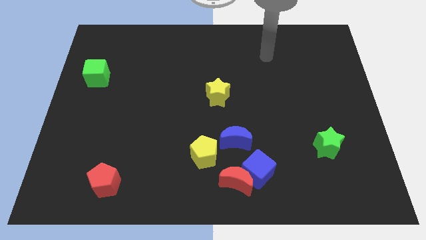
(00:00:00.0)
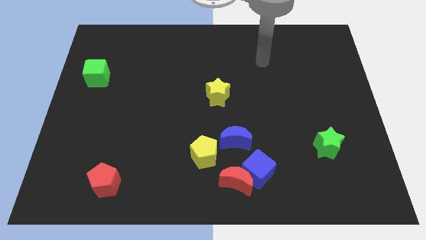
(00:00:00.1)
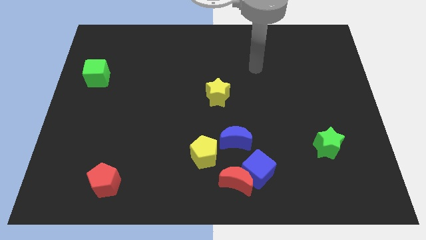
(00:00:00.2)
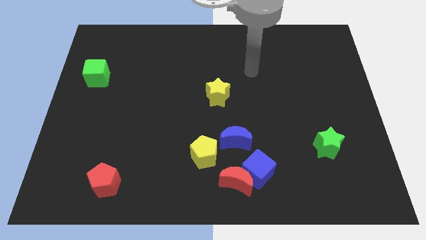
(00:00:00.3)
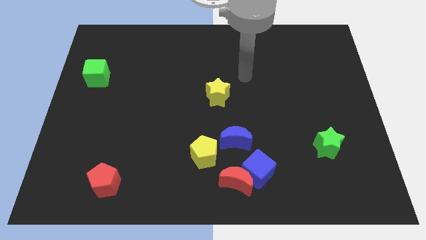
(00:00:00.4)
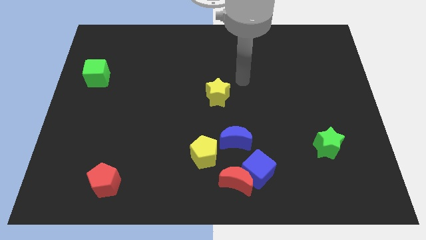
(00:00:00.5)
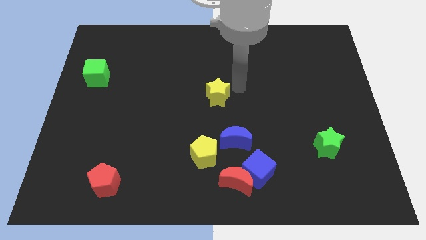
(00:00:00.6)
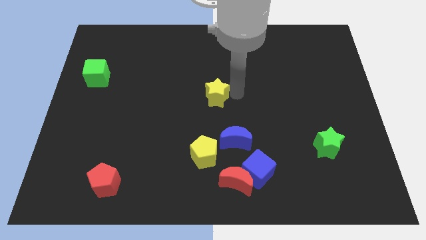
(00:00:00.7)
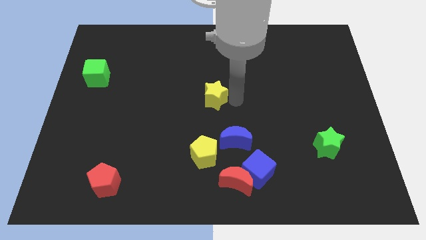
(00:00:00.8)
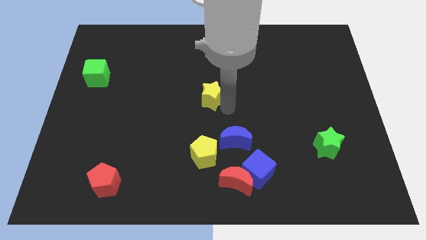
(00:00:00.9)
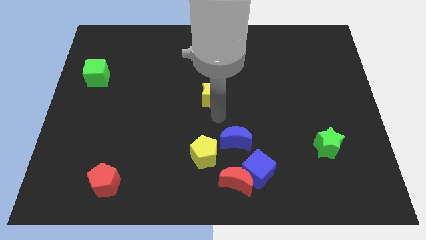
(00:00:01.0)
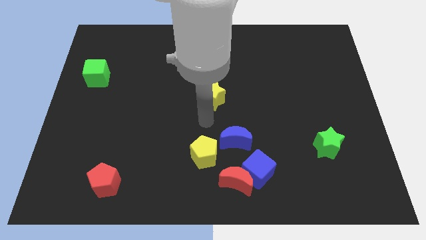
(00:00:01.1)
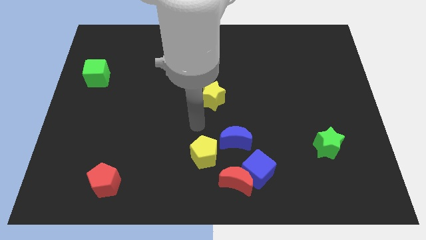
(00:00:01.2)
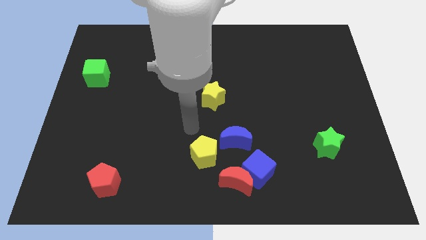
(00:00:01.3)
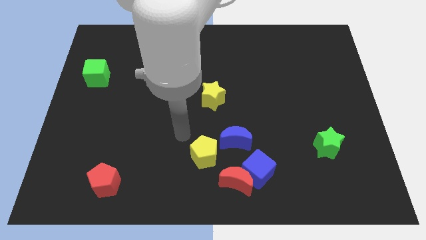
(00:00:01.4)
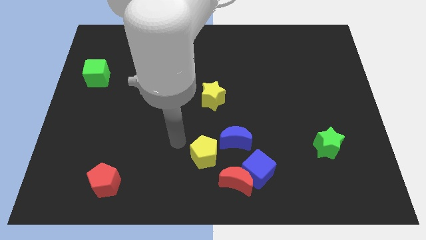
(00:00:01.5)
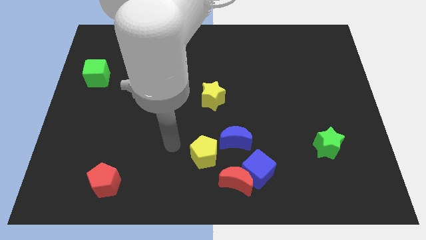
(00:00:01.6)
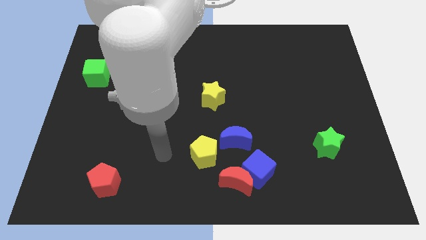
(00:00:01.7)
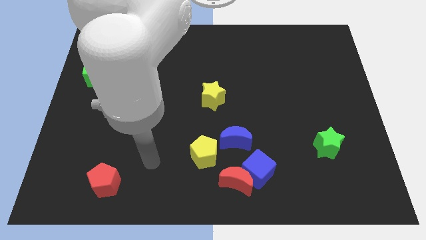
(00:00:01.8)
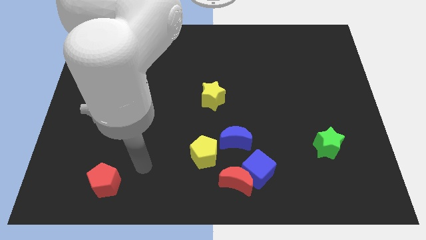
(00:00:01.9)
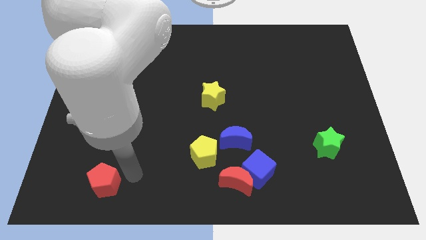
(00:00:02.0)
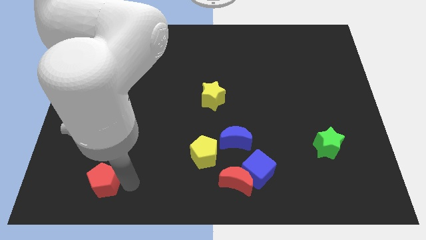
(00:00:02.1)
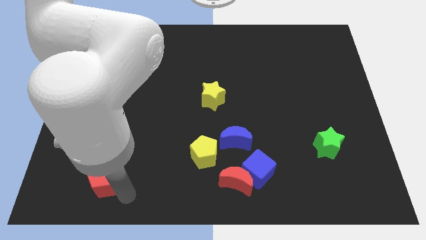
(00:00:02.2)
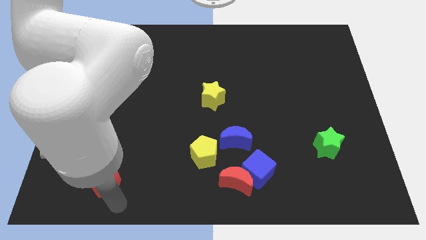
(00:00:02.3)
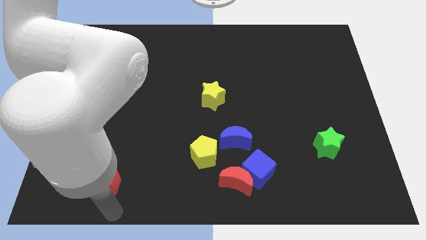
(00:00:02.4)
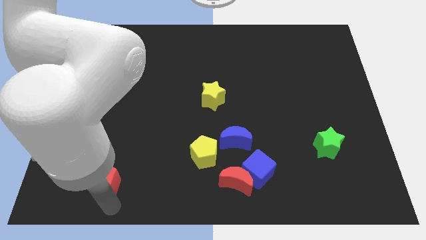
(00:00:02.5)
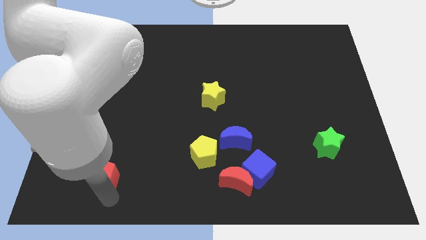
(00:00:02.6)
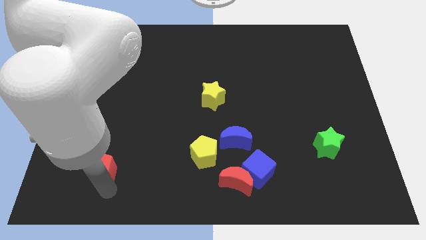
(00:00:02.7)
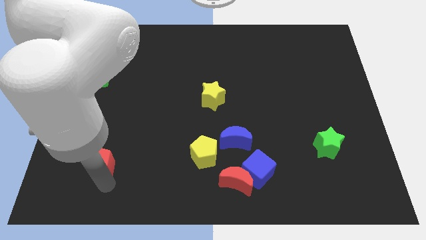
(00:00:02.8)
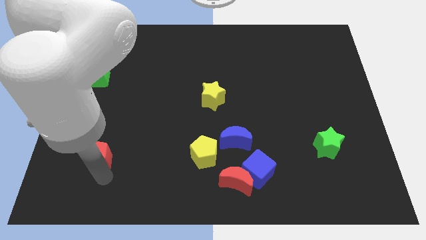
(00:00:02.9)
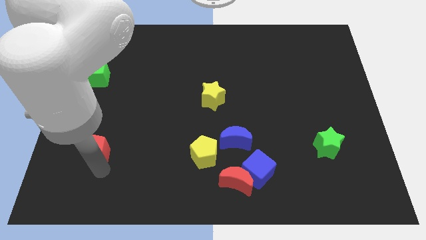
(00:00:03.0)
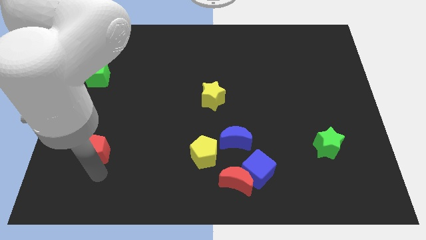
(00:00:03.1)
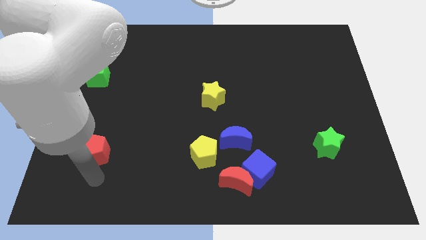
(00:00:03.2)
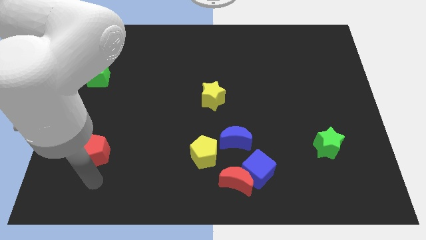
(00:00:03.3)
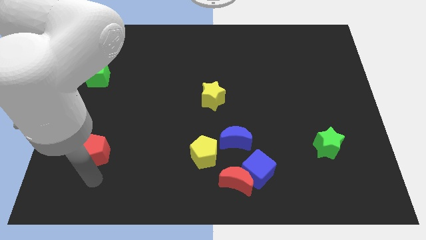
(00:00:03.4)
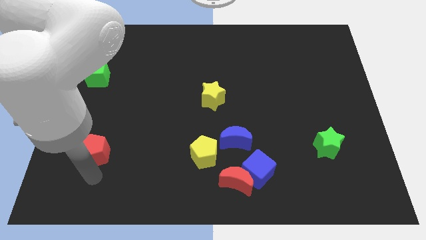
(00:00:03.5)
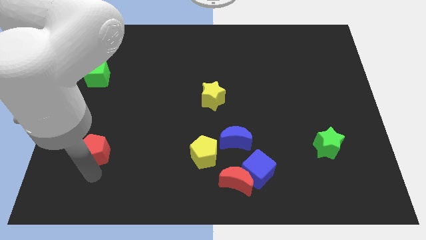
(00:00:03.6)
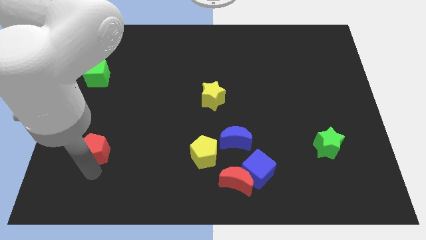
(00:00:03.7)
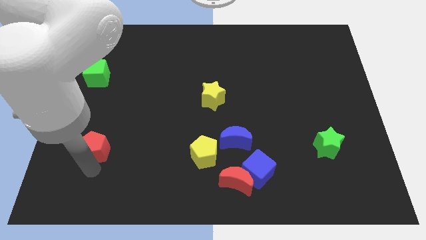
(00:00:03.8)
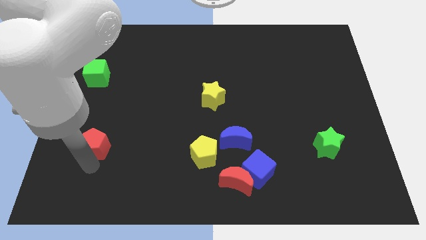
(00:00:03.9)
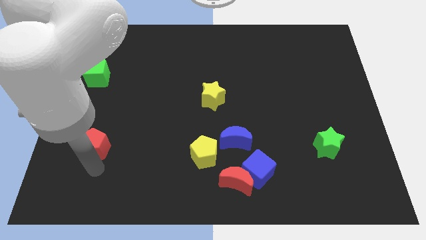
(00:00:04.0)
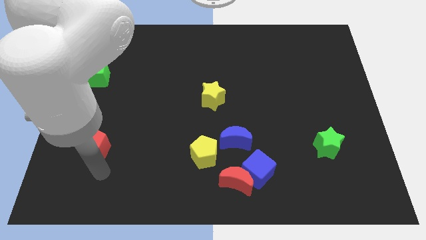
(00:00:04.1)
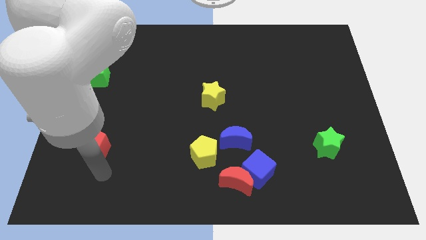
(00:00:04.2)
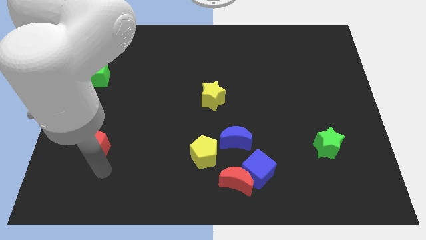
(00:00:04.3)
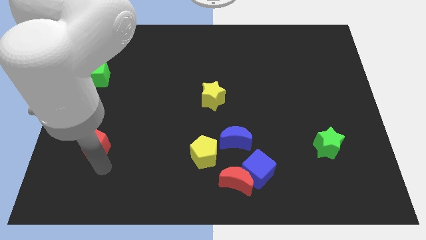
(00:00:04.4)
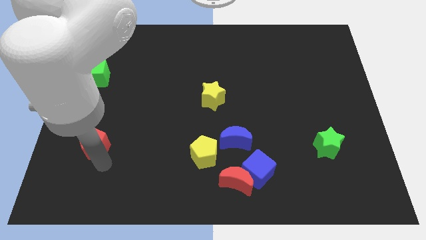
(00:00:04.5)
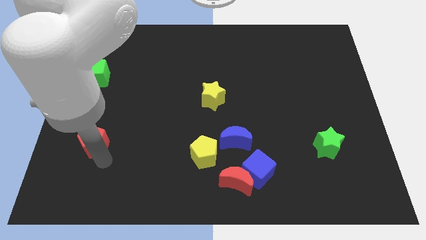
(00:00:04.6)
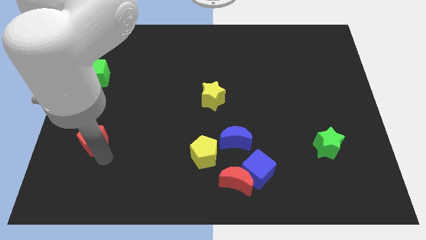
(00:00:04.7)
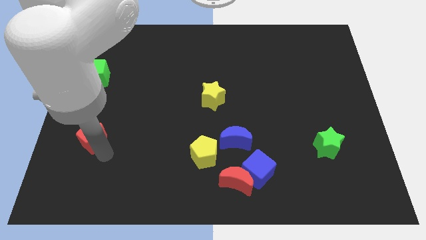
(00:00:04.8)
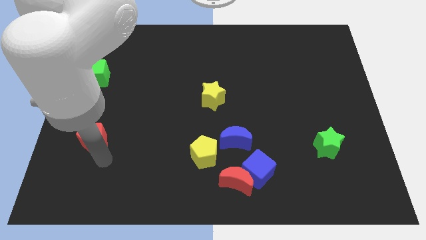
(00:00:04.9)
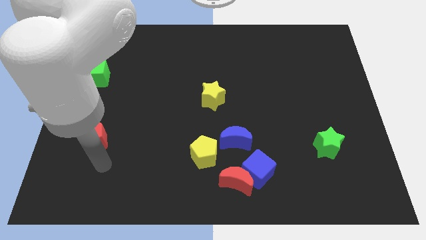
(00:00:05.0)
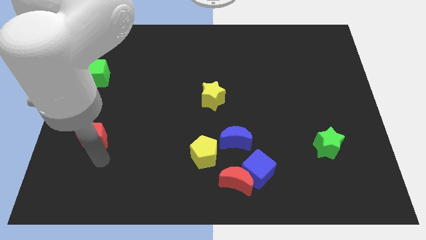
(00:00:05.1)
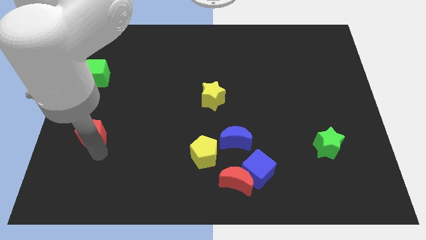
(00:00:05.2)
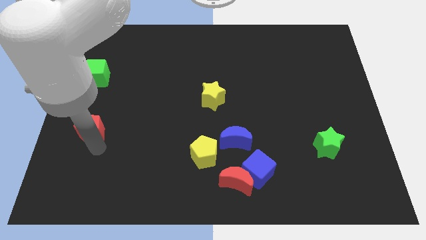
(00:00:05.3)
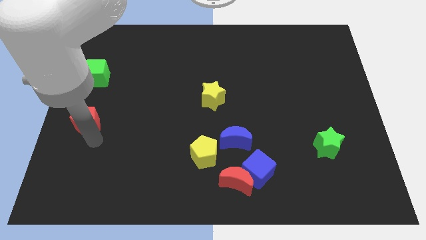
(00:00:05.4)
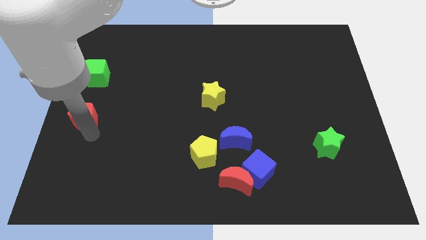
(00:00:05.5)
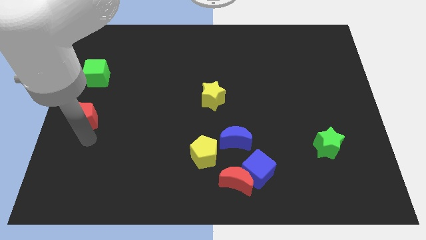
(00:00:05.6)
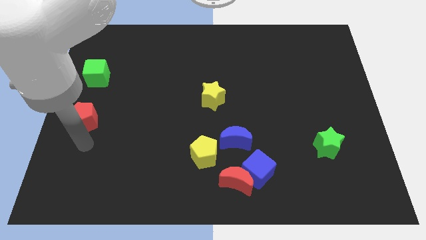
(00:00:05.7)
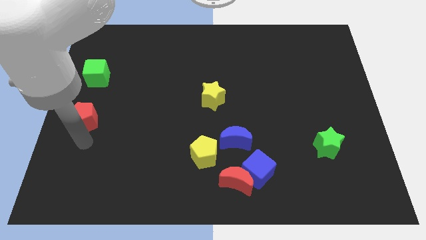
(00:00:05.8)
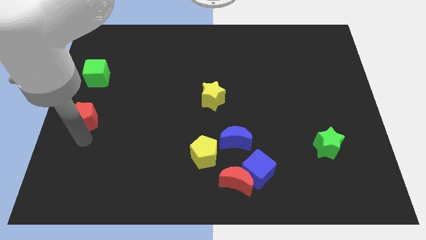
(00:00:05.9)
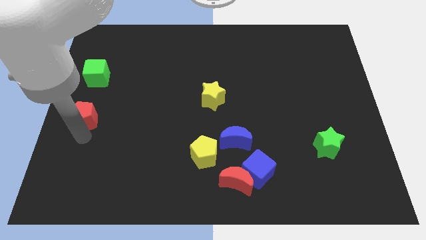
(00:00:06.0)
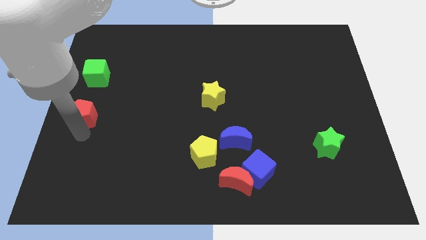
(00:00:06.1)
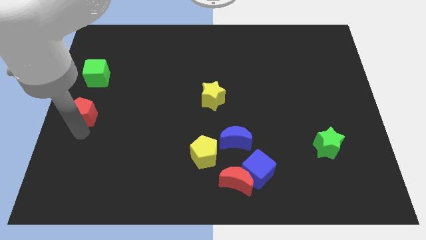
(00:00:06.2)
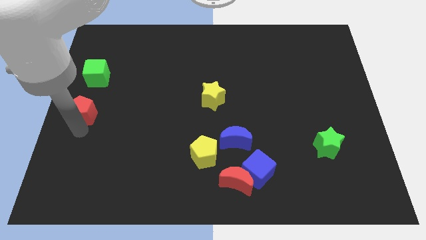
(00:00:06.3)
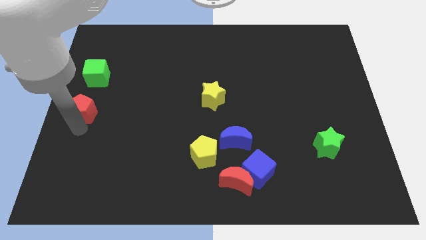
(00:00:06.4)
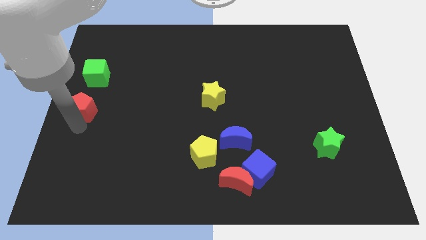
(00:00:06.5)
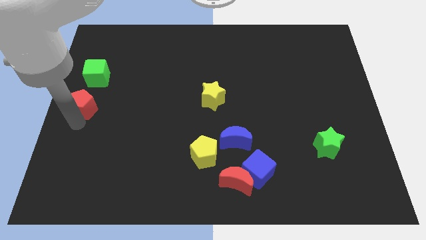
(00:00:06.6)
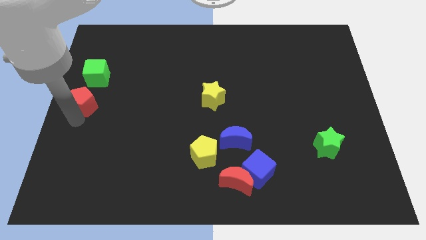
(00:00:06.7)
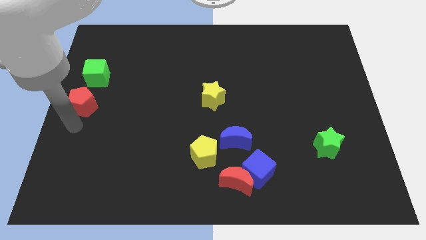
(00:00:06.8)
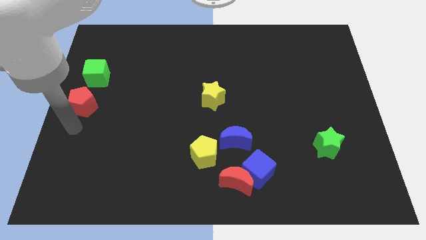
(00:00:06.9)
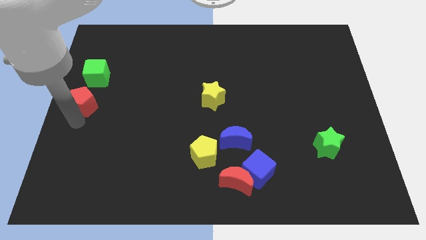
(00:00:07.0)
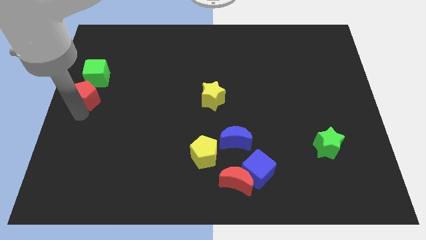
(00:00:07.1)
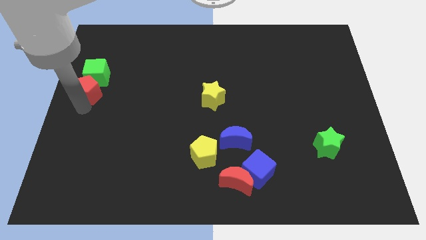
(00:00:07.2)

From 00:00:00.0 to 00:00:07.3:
push the red pentagon next to the green cube
